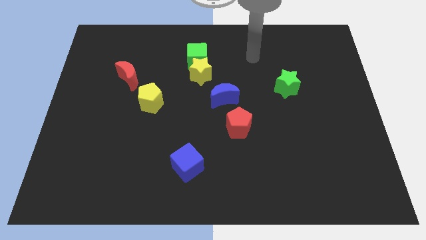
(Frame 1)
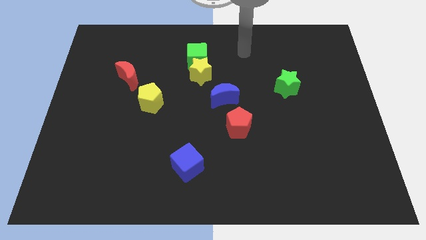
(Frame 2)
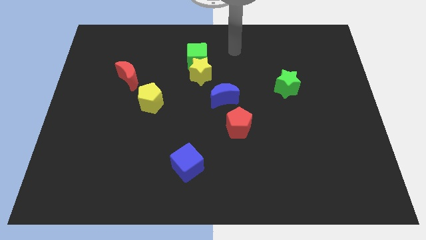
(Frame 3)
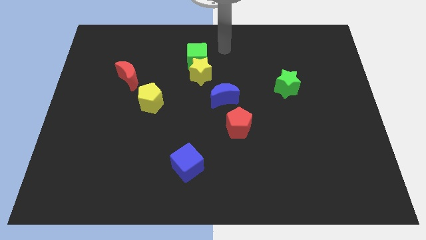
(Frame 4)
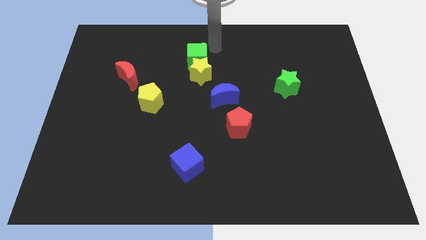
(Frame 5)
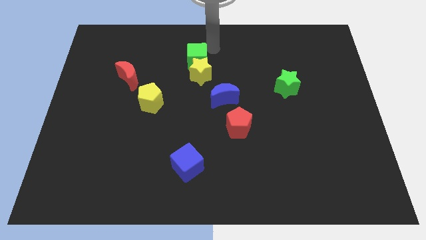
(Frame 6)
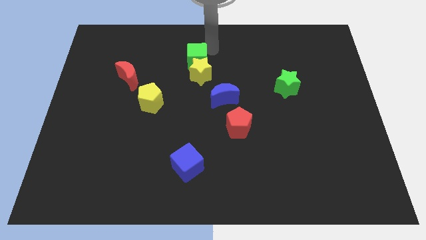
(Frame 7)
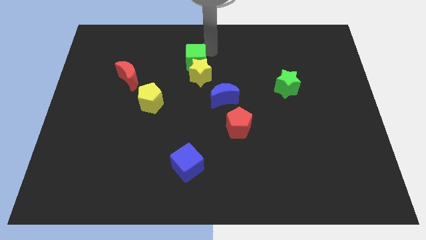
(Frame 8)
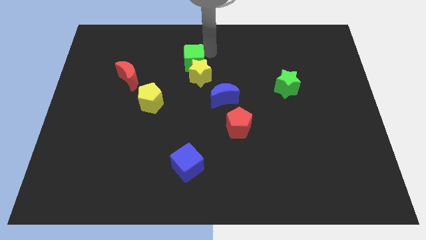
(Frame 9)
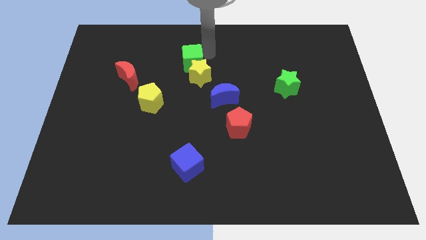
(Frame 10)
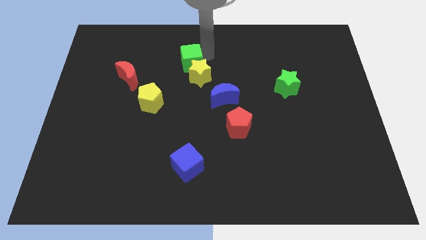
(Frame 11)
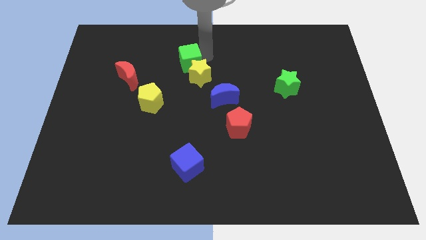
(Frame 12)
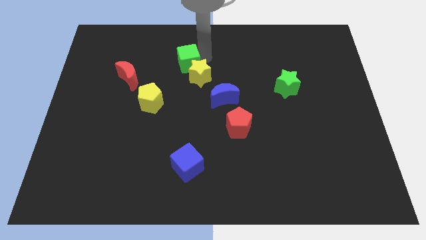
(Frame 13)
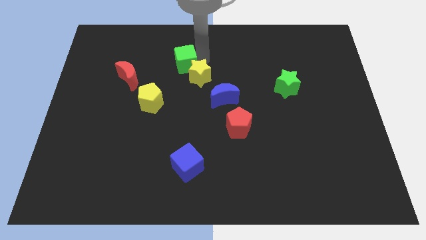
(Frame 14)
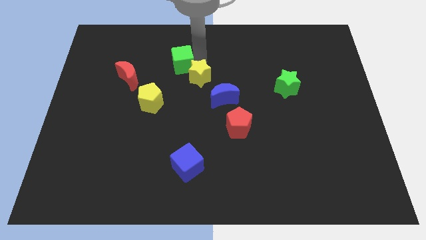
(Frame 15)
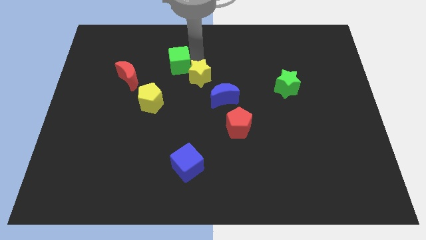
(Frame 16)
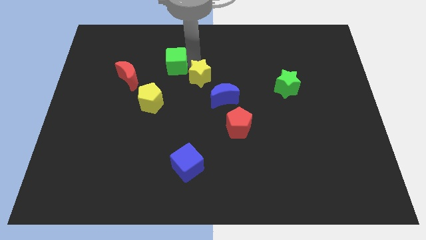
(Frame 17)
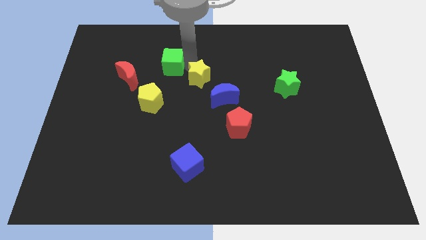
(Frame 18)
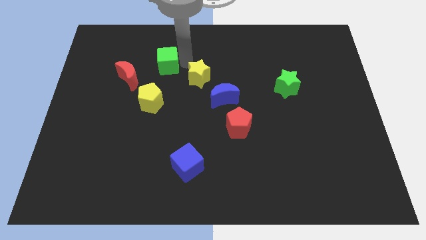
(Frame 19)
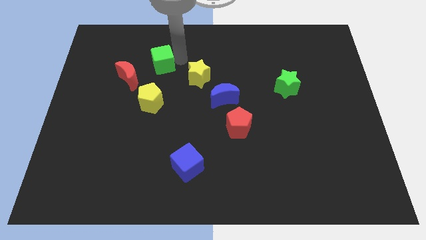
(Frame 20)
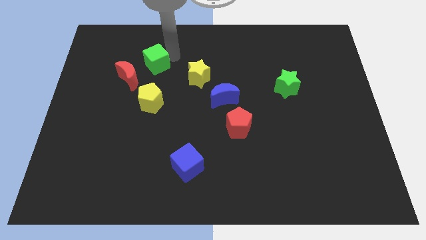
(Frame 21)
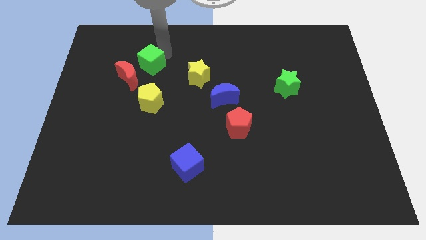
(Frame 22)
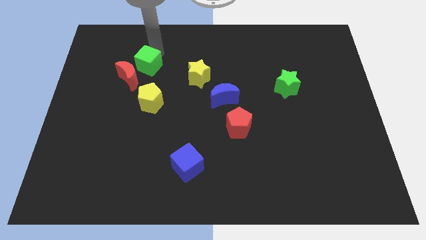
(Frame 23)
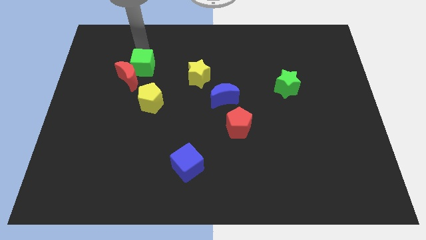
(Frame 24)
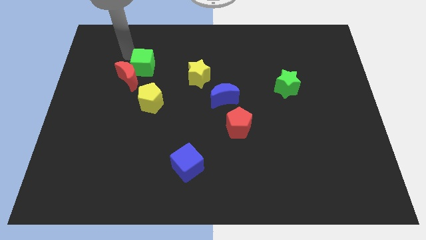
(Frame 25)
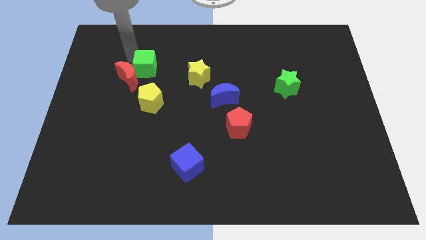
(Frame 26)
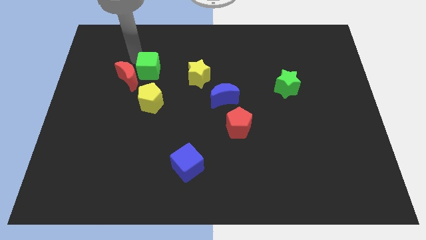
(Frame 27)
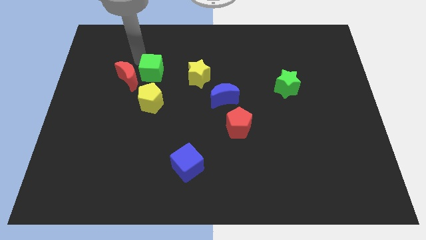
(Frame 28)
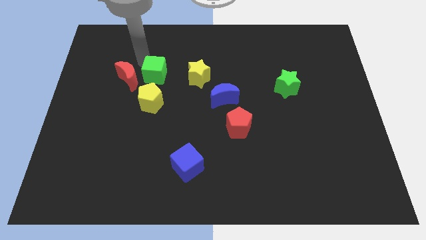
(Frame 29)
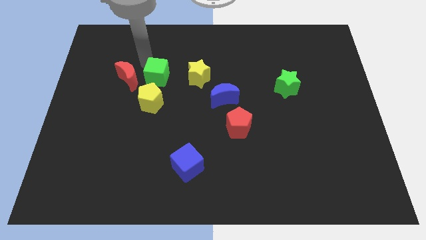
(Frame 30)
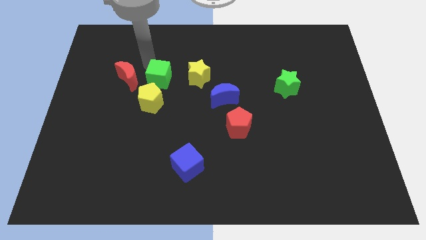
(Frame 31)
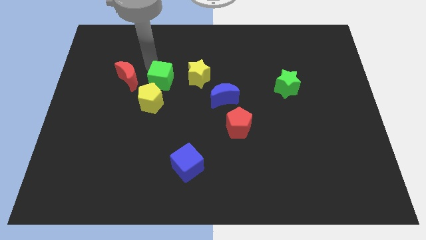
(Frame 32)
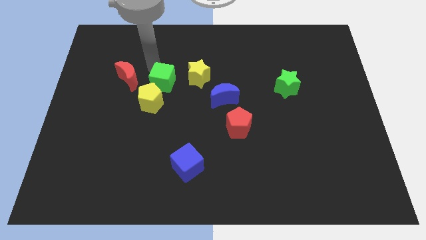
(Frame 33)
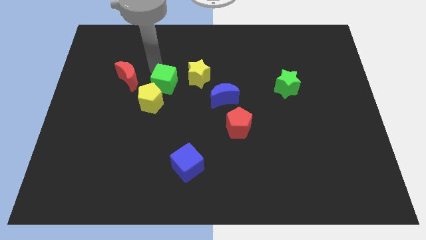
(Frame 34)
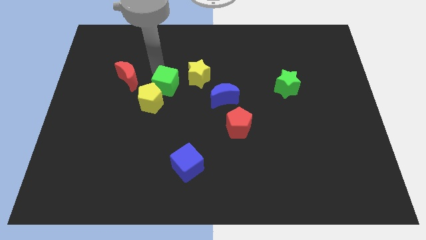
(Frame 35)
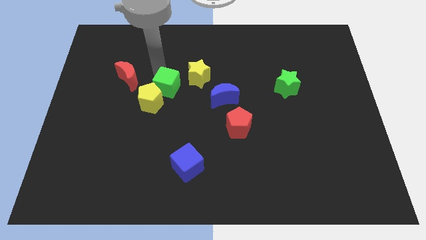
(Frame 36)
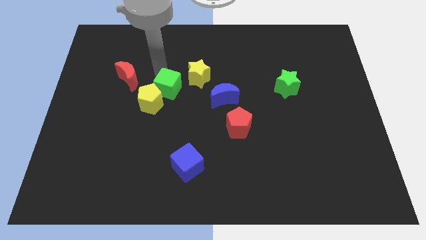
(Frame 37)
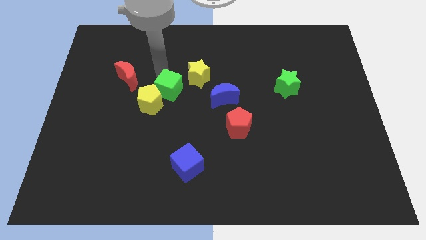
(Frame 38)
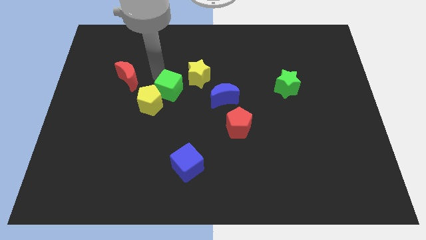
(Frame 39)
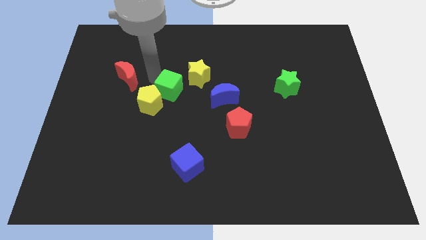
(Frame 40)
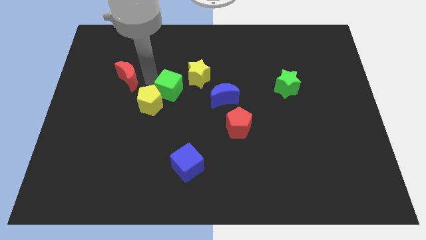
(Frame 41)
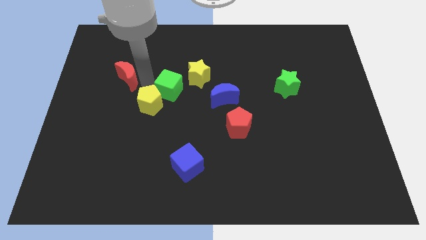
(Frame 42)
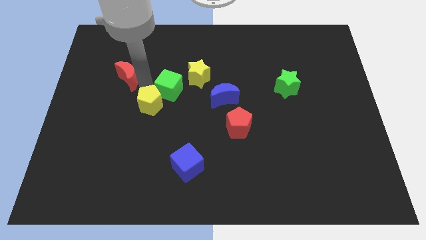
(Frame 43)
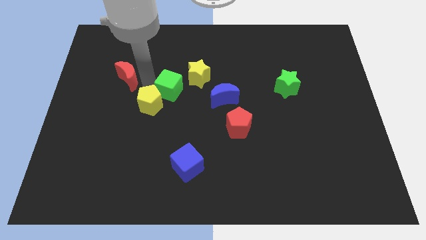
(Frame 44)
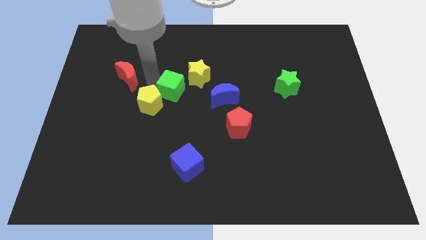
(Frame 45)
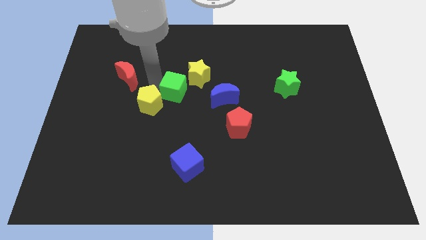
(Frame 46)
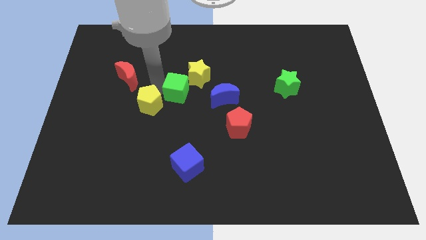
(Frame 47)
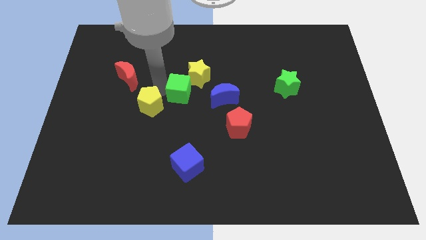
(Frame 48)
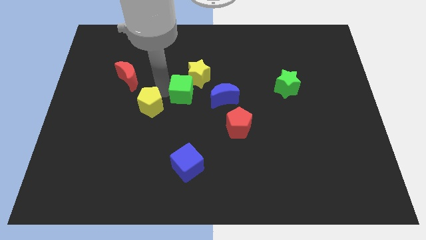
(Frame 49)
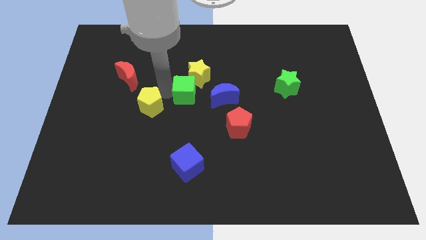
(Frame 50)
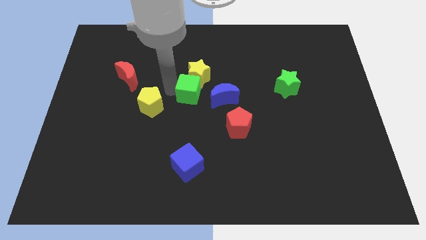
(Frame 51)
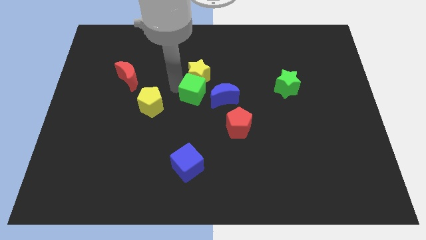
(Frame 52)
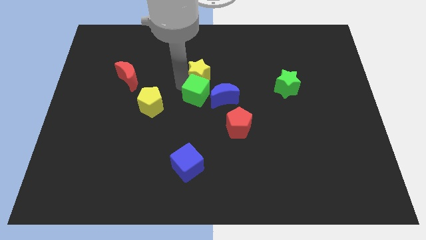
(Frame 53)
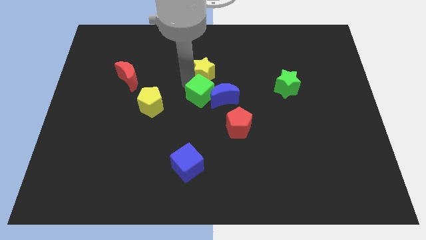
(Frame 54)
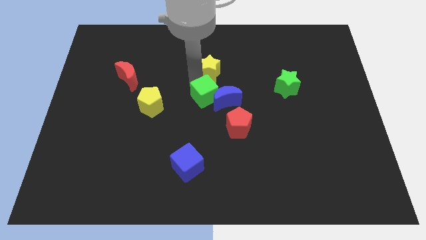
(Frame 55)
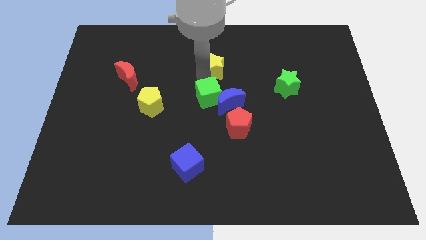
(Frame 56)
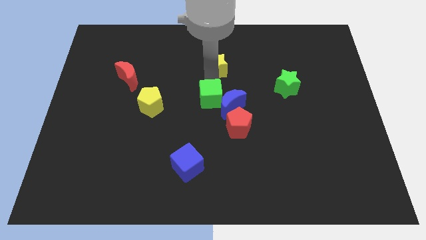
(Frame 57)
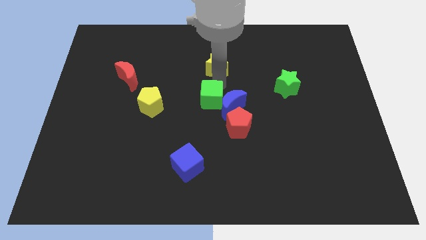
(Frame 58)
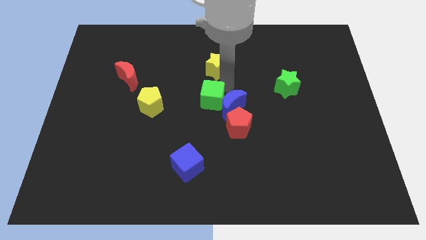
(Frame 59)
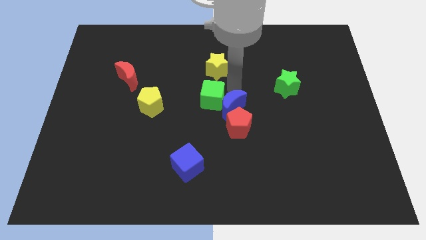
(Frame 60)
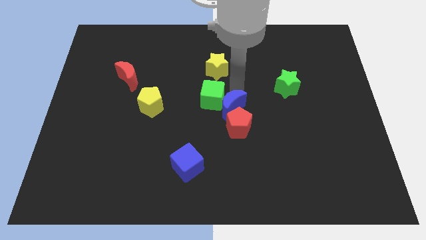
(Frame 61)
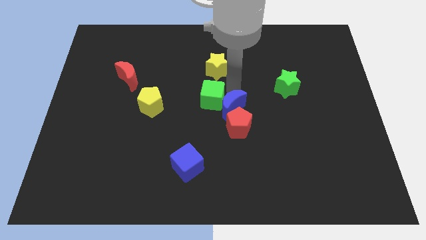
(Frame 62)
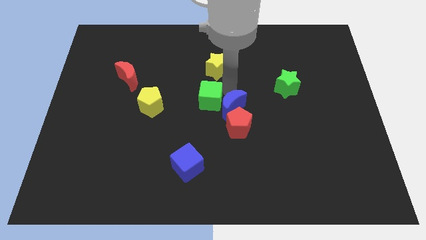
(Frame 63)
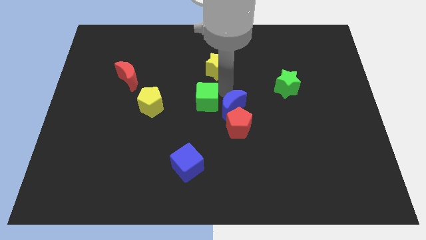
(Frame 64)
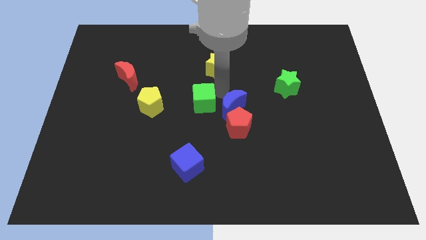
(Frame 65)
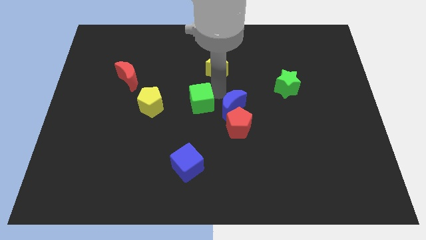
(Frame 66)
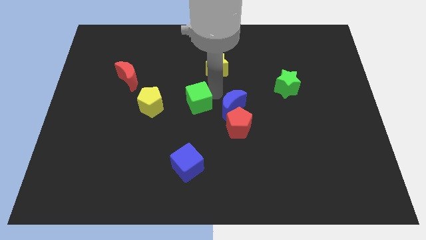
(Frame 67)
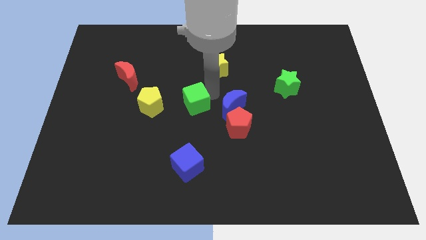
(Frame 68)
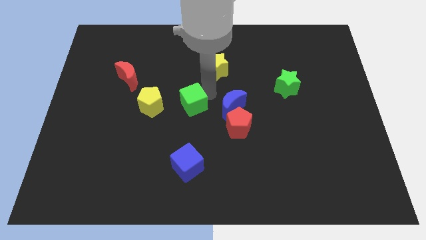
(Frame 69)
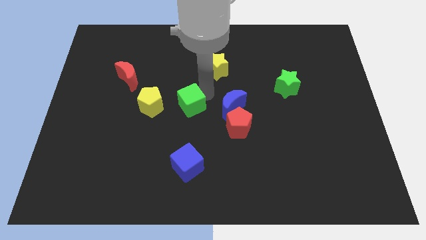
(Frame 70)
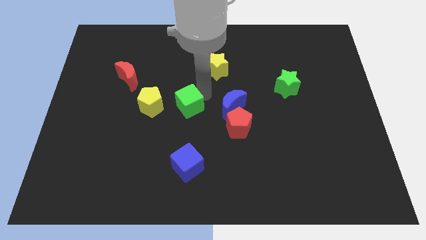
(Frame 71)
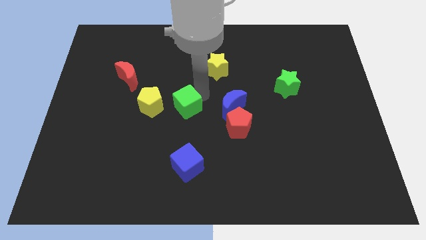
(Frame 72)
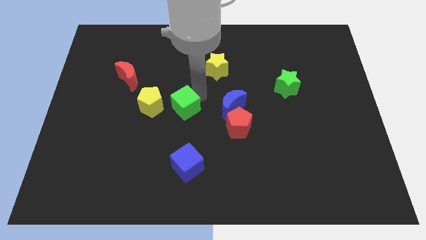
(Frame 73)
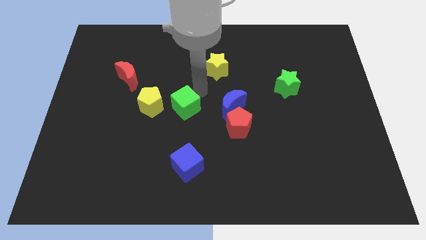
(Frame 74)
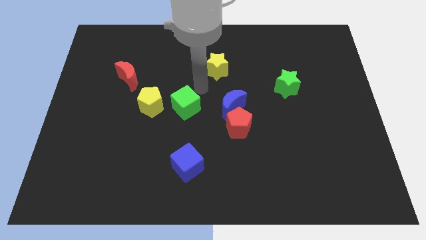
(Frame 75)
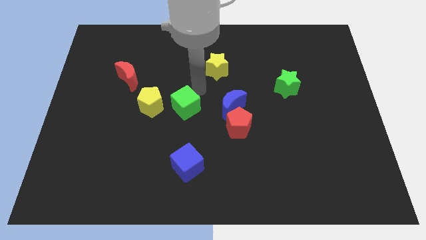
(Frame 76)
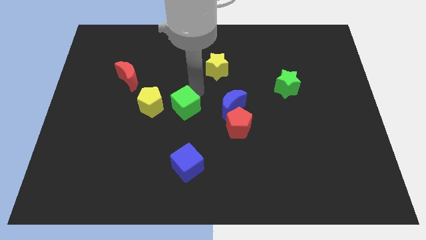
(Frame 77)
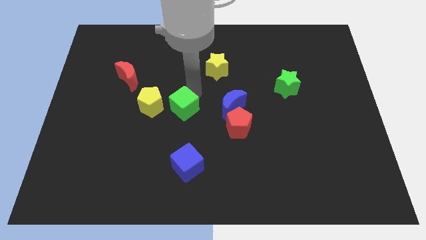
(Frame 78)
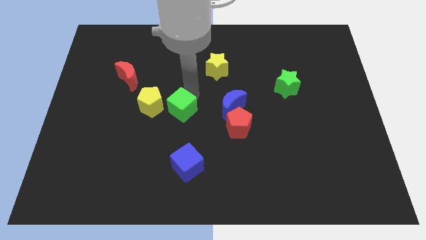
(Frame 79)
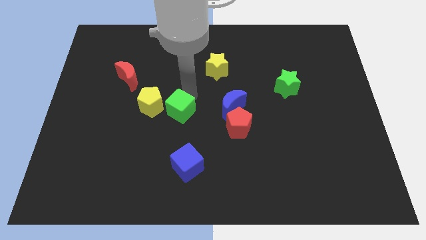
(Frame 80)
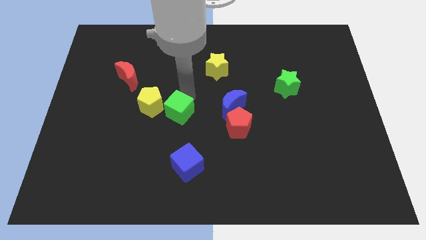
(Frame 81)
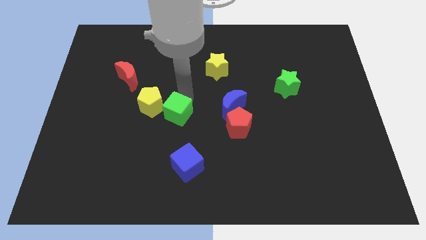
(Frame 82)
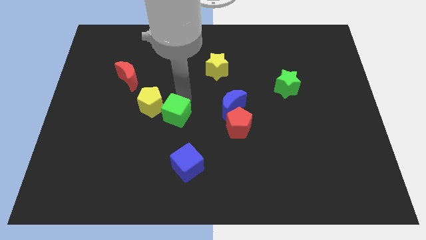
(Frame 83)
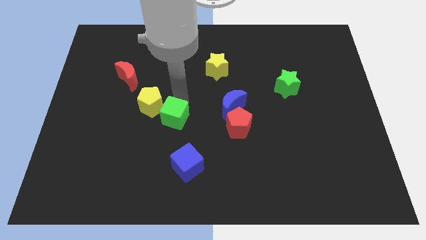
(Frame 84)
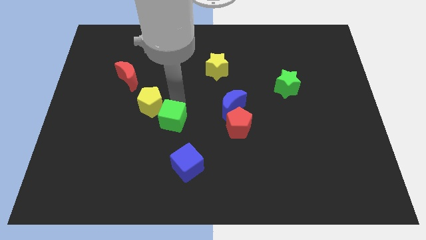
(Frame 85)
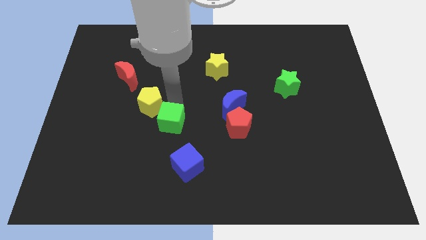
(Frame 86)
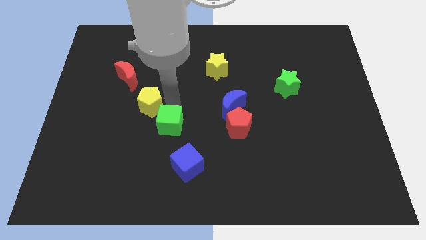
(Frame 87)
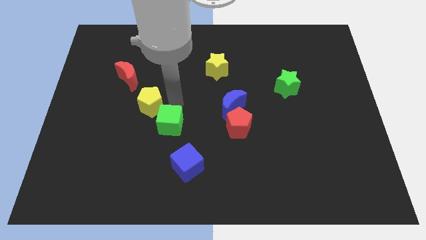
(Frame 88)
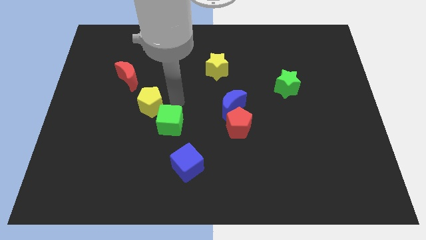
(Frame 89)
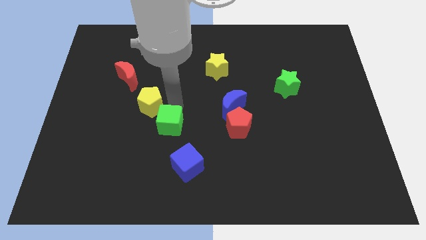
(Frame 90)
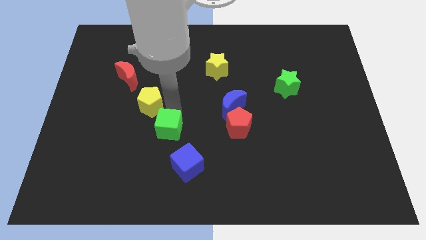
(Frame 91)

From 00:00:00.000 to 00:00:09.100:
slide the green cube diagonally up and to the left of the blue cube
